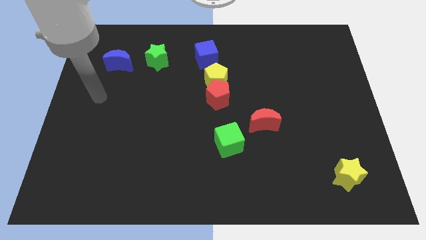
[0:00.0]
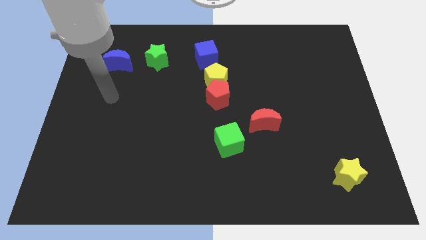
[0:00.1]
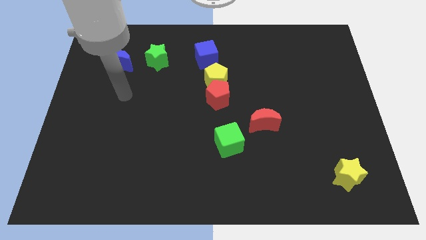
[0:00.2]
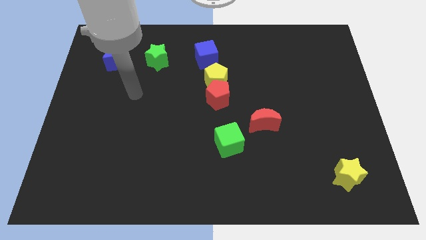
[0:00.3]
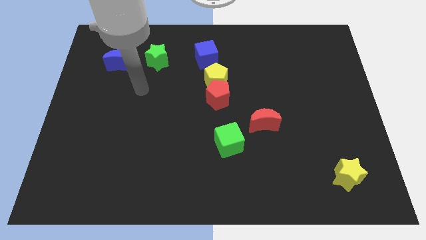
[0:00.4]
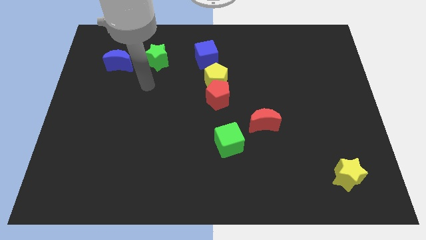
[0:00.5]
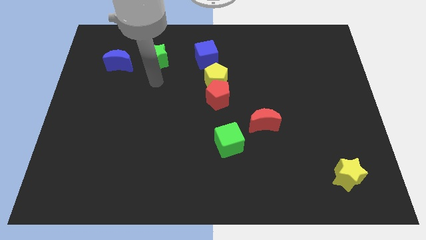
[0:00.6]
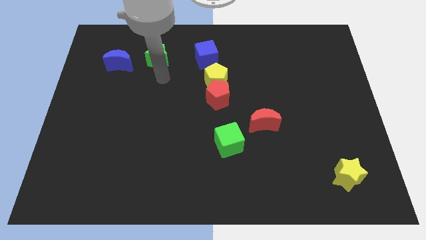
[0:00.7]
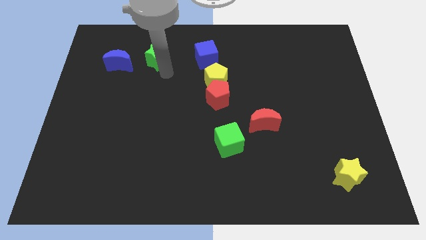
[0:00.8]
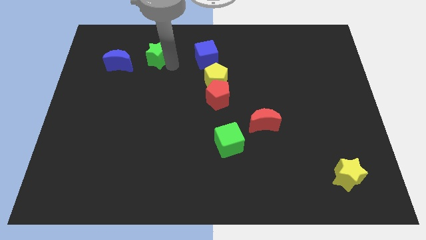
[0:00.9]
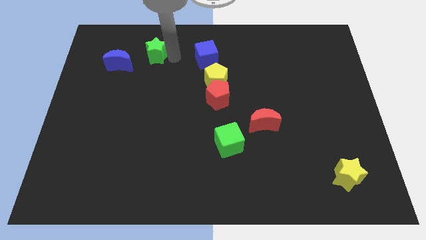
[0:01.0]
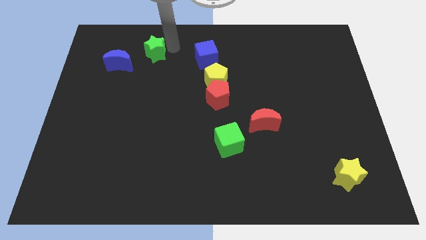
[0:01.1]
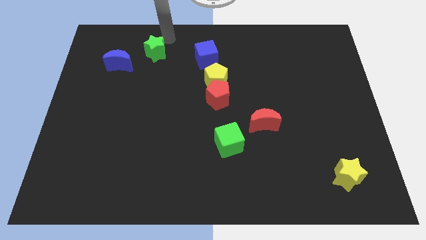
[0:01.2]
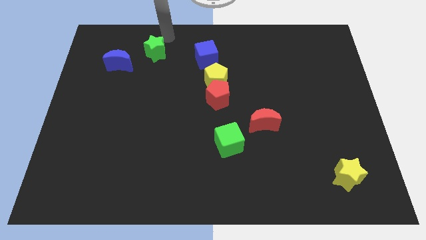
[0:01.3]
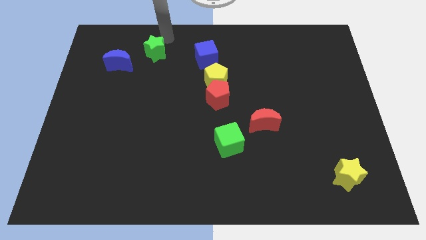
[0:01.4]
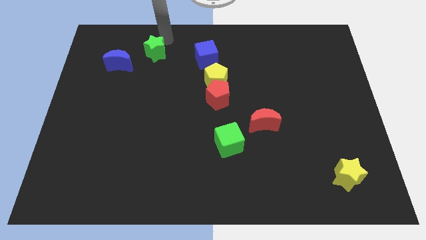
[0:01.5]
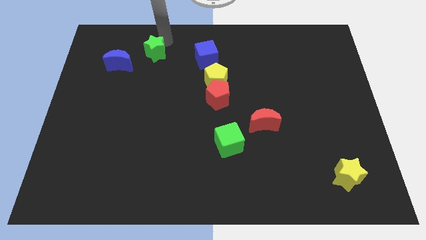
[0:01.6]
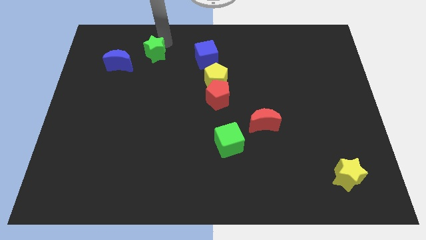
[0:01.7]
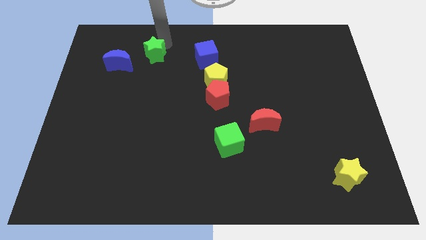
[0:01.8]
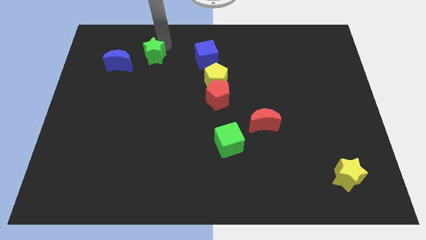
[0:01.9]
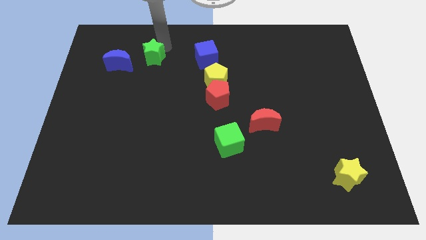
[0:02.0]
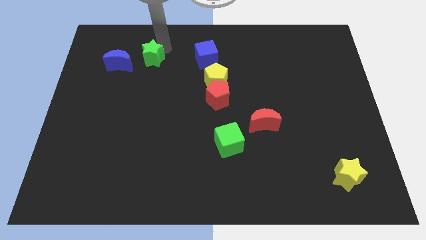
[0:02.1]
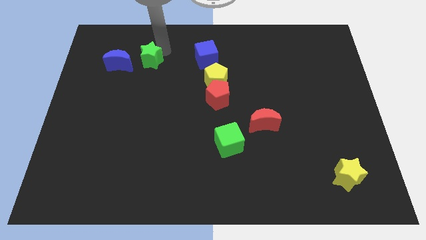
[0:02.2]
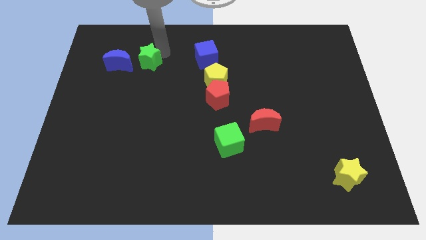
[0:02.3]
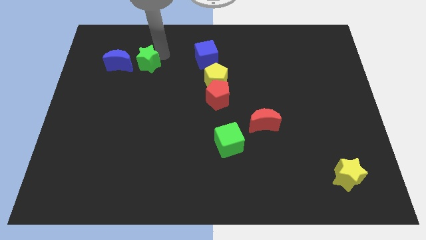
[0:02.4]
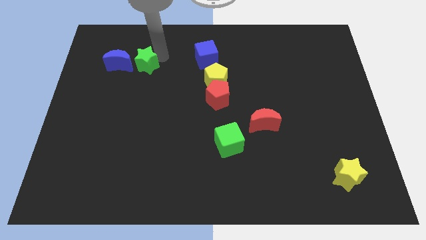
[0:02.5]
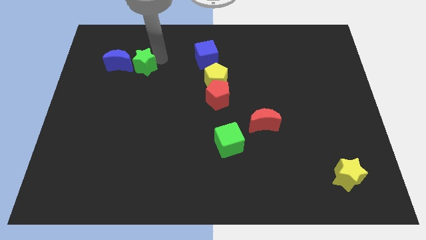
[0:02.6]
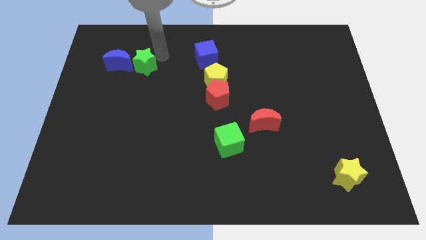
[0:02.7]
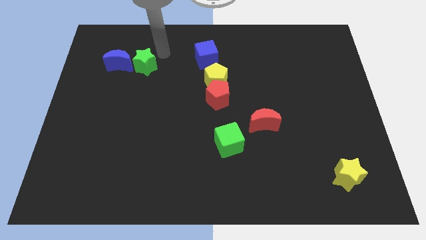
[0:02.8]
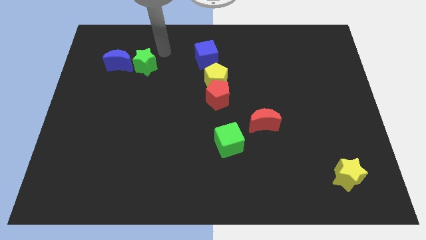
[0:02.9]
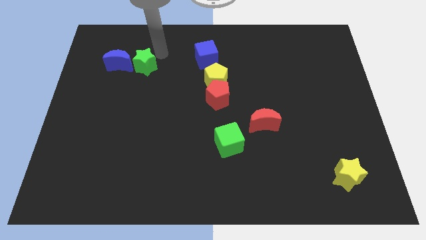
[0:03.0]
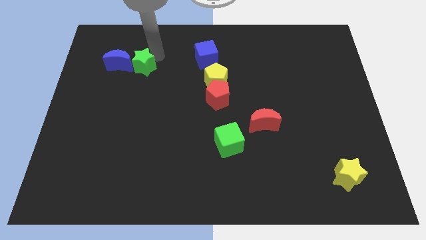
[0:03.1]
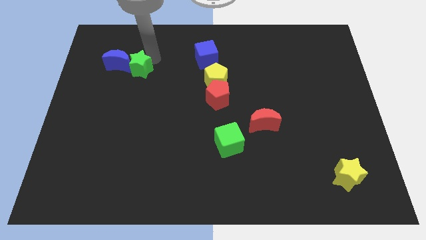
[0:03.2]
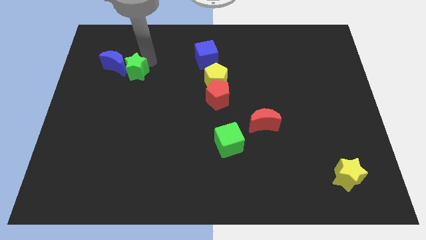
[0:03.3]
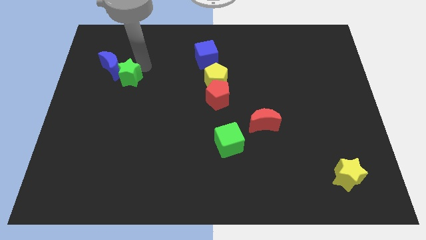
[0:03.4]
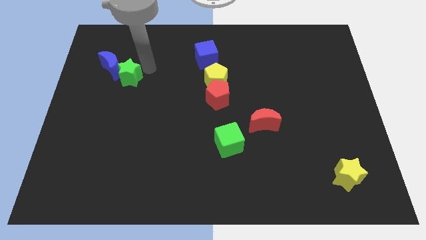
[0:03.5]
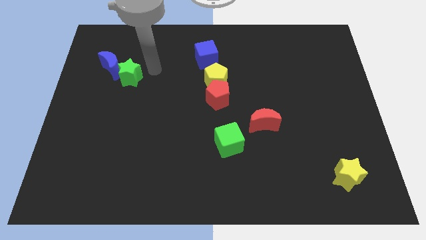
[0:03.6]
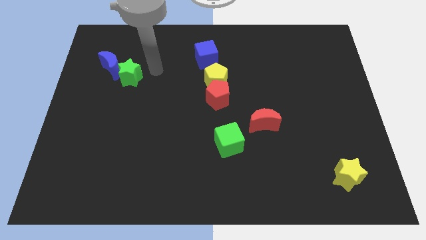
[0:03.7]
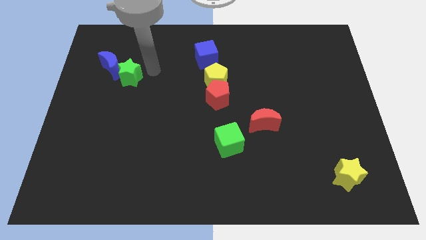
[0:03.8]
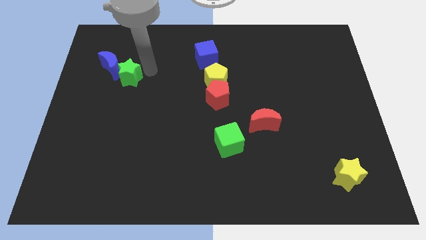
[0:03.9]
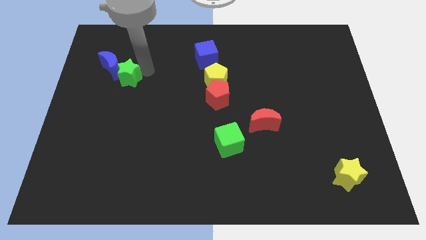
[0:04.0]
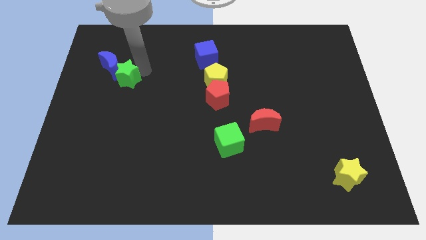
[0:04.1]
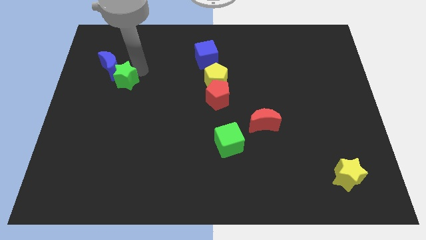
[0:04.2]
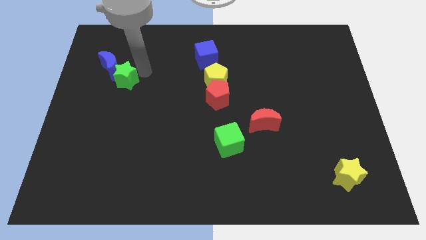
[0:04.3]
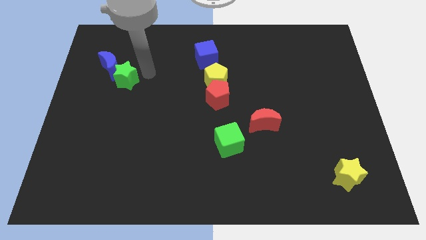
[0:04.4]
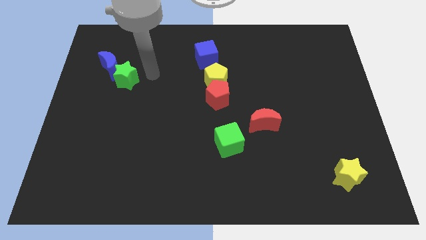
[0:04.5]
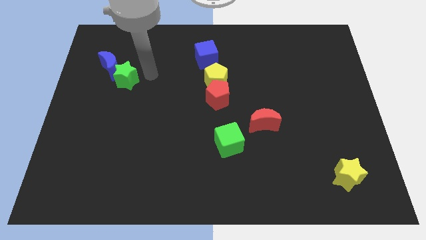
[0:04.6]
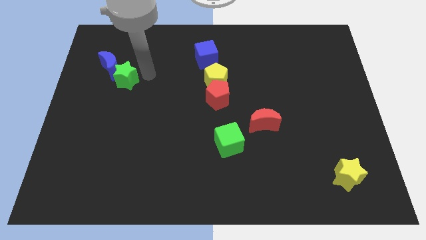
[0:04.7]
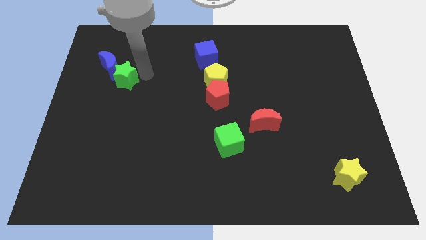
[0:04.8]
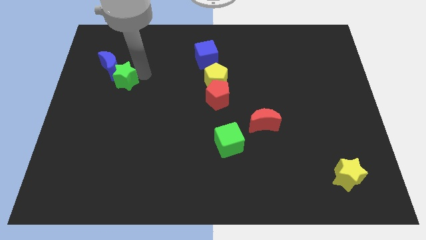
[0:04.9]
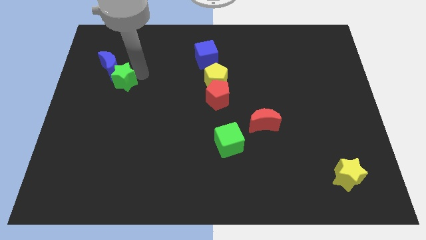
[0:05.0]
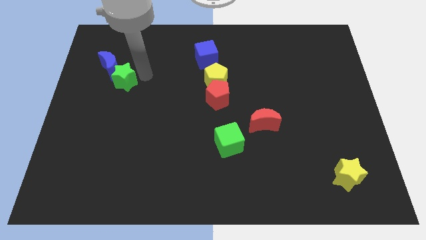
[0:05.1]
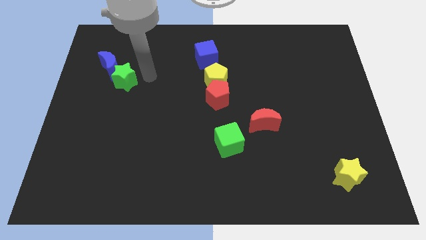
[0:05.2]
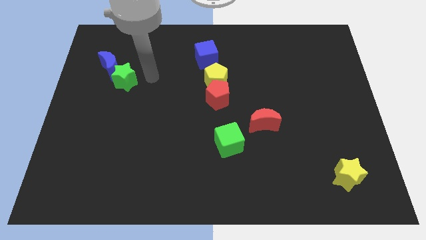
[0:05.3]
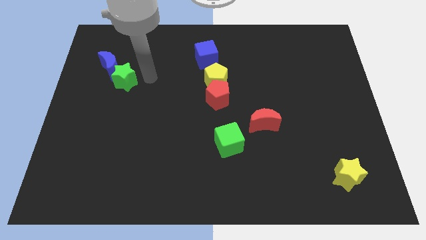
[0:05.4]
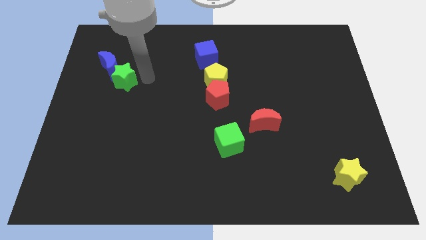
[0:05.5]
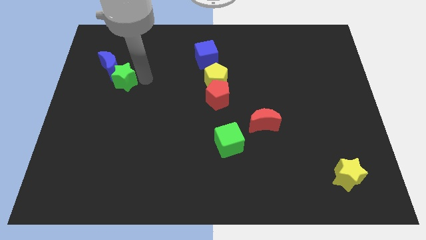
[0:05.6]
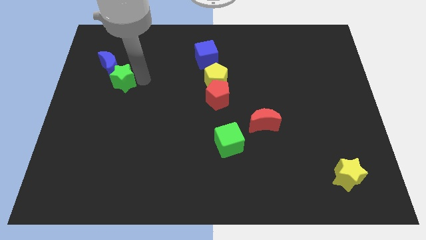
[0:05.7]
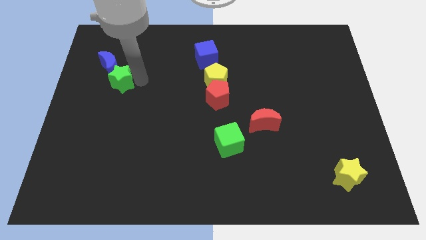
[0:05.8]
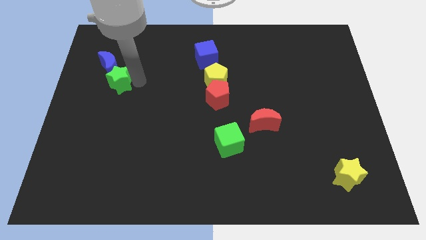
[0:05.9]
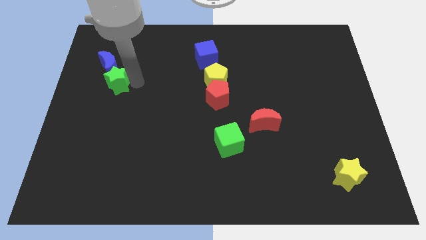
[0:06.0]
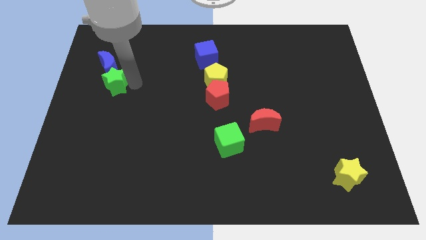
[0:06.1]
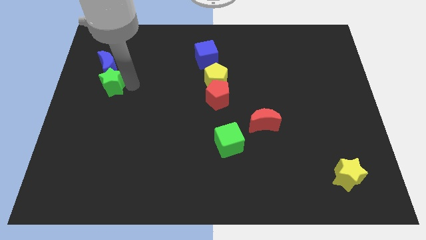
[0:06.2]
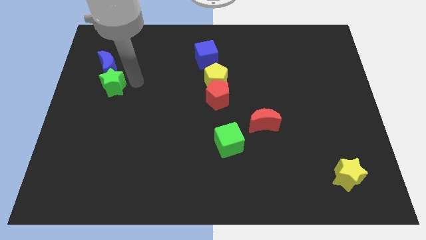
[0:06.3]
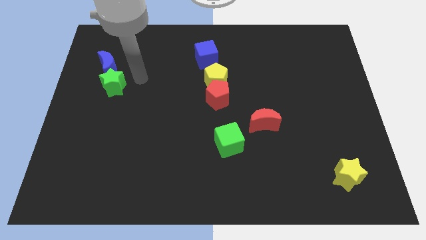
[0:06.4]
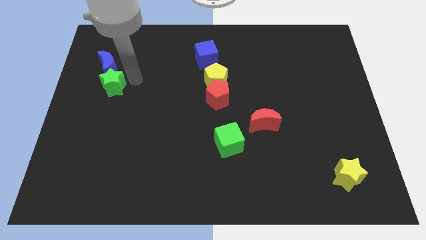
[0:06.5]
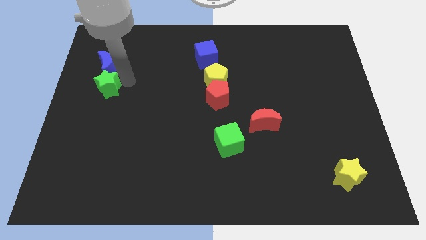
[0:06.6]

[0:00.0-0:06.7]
slide the green star to the center left
